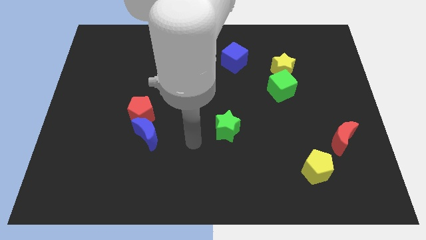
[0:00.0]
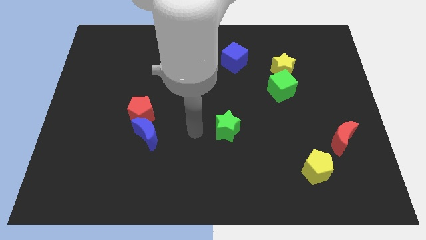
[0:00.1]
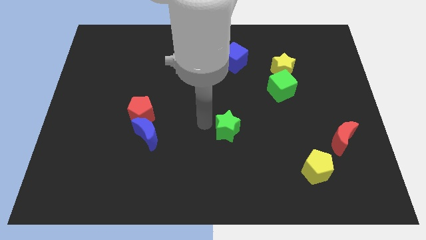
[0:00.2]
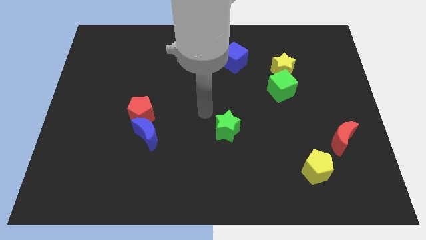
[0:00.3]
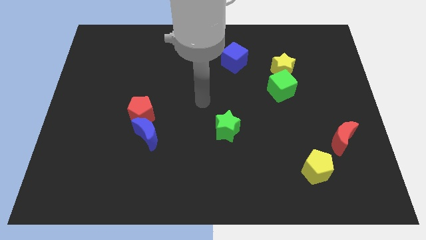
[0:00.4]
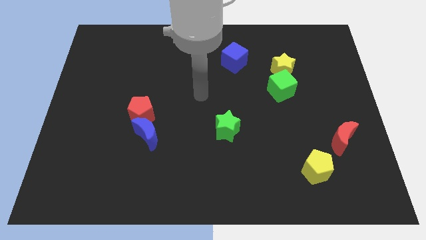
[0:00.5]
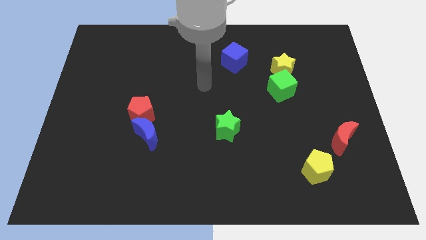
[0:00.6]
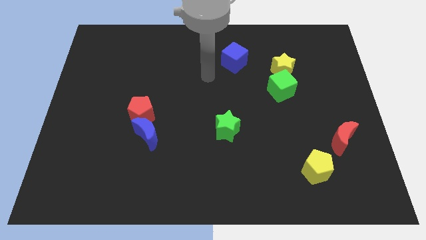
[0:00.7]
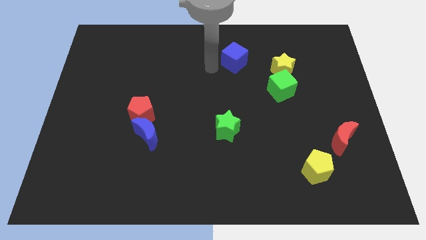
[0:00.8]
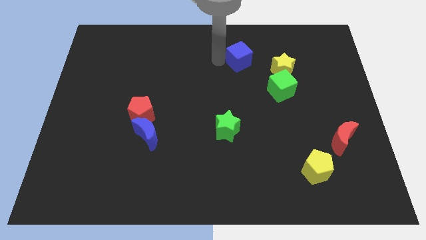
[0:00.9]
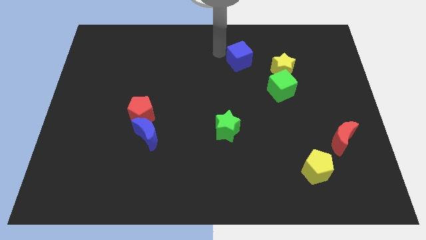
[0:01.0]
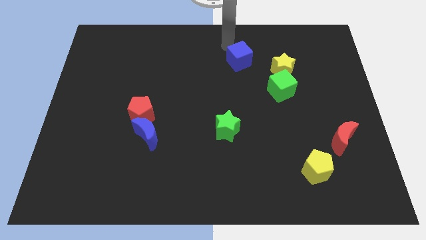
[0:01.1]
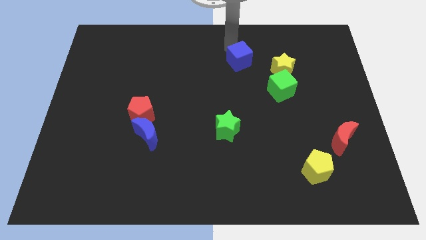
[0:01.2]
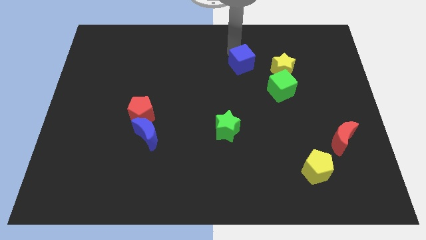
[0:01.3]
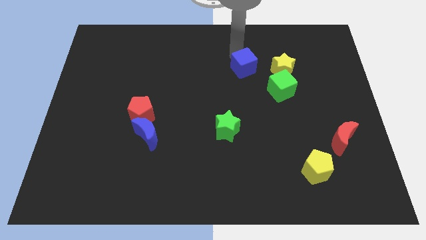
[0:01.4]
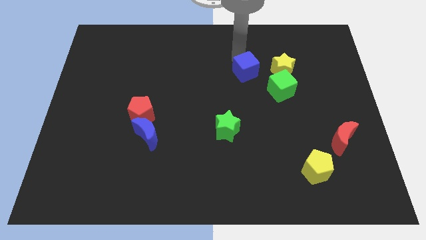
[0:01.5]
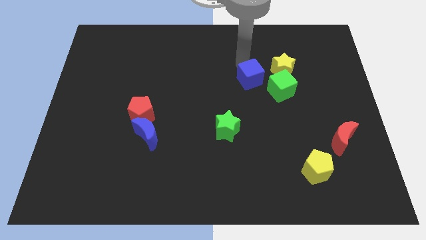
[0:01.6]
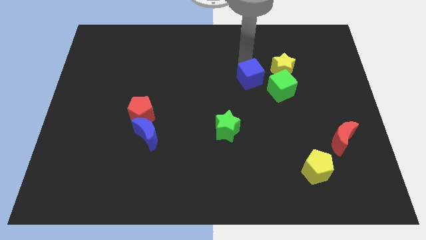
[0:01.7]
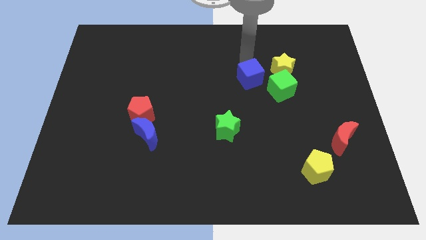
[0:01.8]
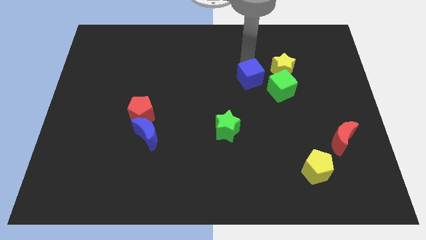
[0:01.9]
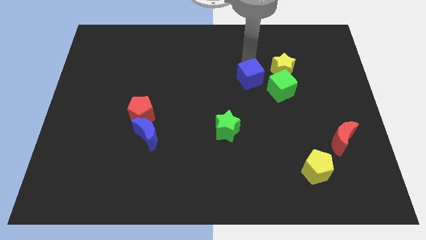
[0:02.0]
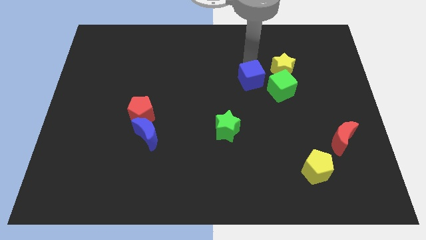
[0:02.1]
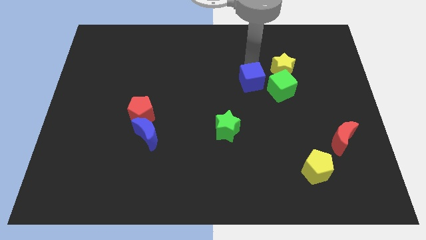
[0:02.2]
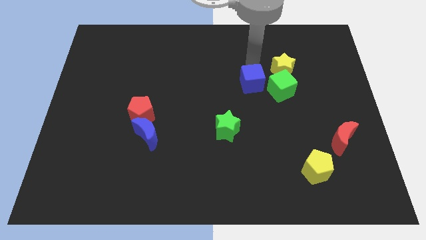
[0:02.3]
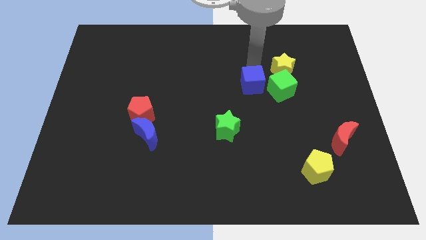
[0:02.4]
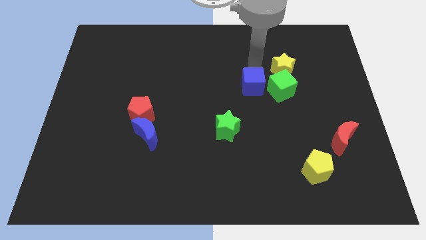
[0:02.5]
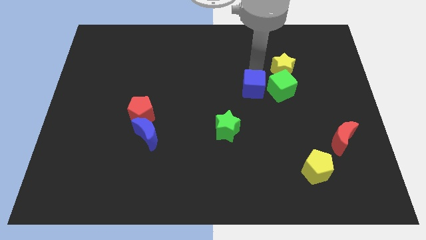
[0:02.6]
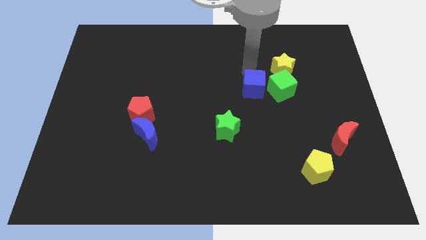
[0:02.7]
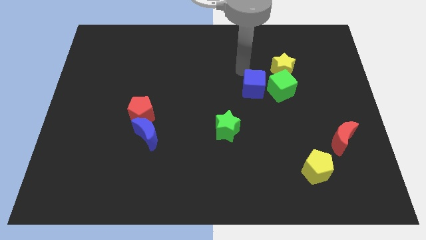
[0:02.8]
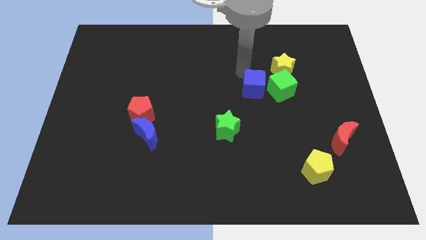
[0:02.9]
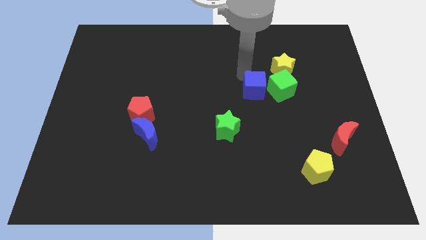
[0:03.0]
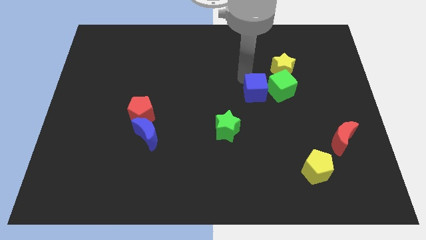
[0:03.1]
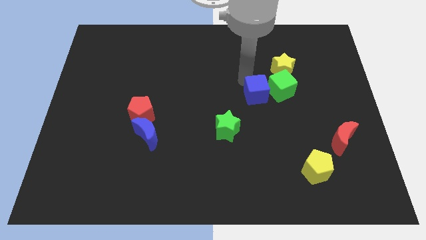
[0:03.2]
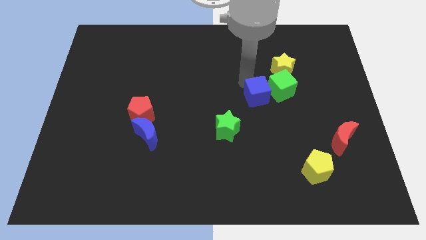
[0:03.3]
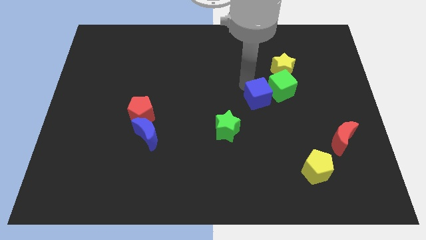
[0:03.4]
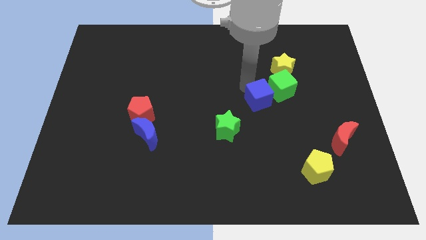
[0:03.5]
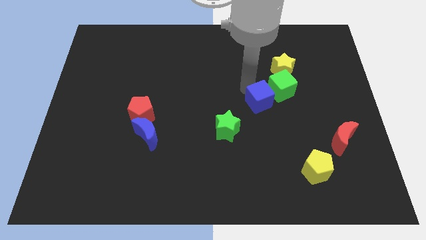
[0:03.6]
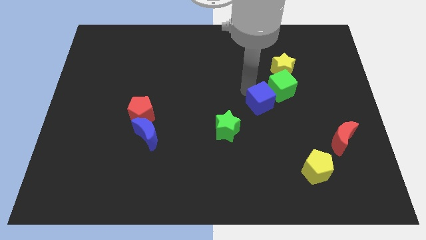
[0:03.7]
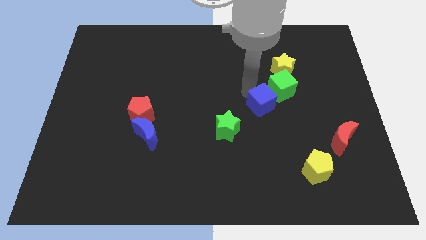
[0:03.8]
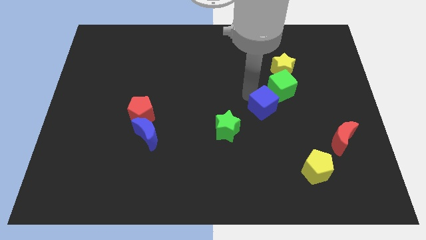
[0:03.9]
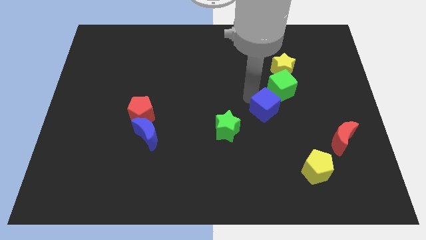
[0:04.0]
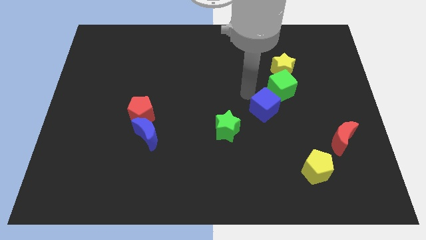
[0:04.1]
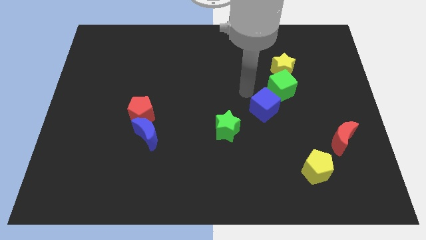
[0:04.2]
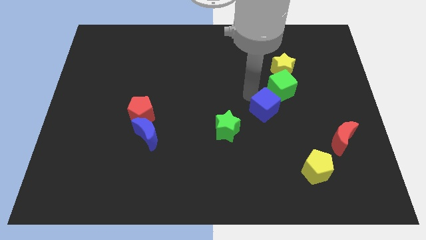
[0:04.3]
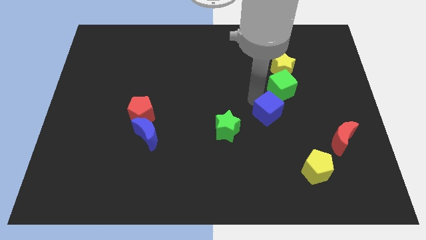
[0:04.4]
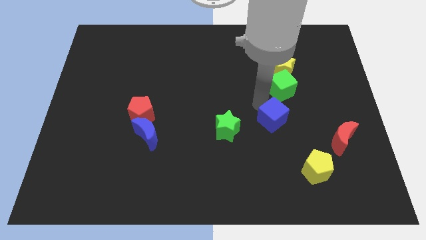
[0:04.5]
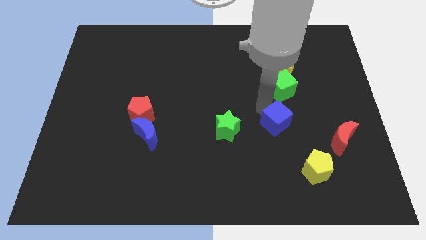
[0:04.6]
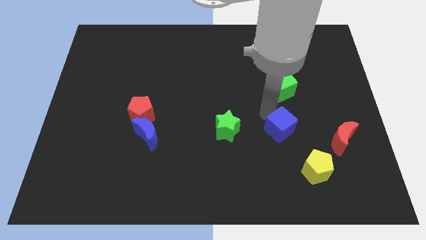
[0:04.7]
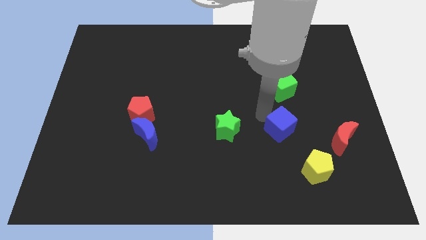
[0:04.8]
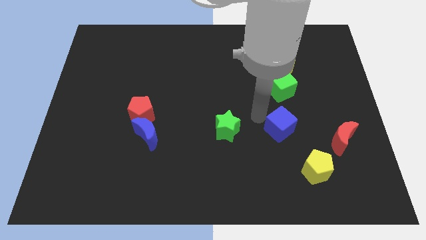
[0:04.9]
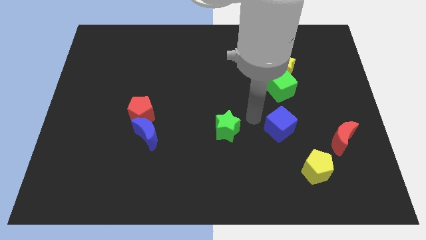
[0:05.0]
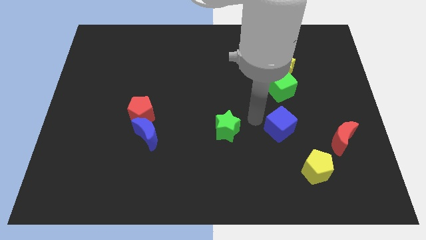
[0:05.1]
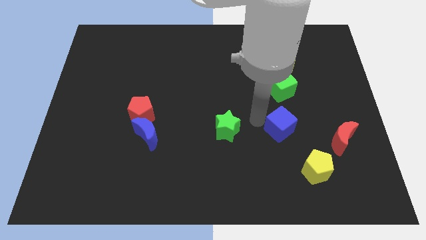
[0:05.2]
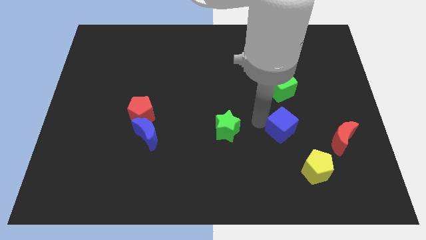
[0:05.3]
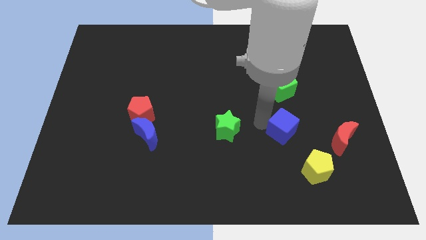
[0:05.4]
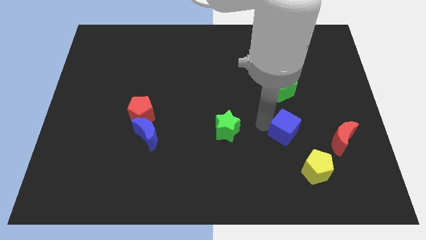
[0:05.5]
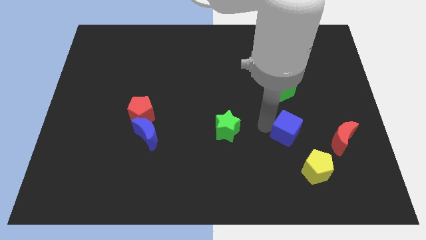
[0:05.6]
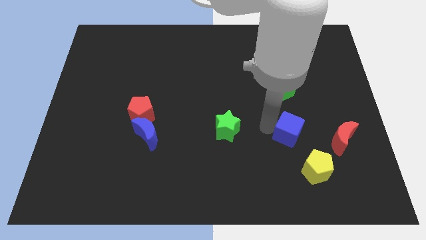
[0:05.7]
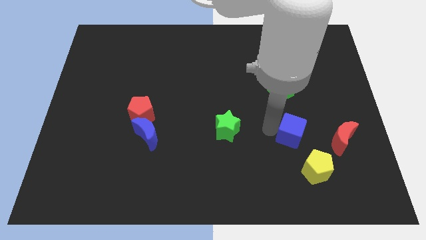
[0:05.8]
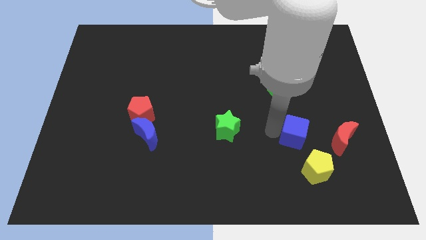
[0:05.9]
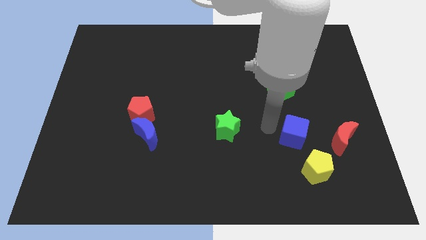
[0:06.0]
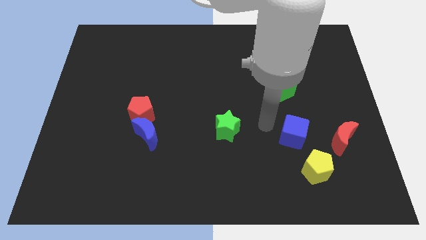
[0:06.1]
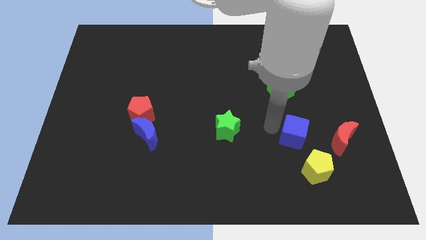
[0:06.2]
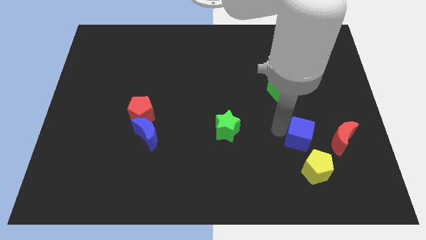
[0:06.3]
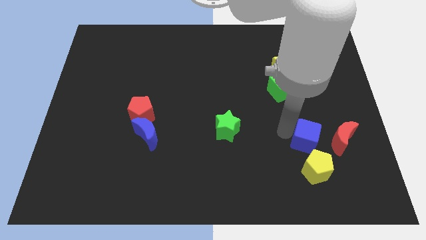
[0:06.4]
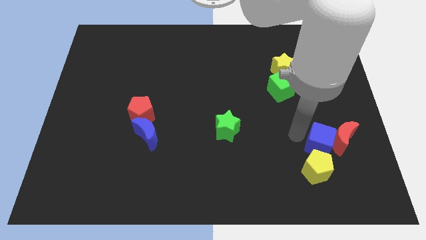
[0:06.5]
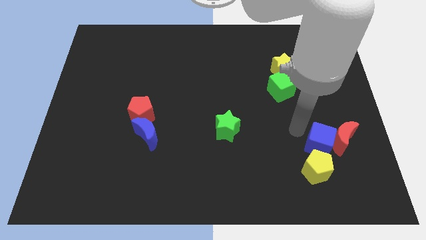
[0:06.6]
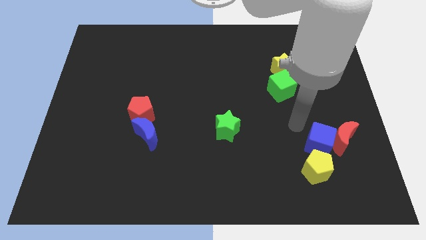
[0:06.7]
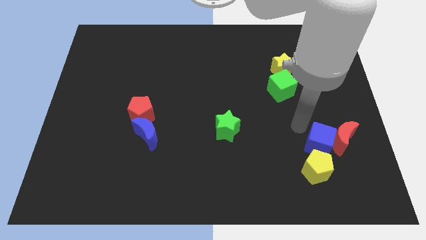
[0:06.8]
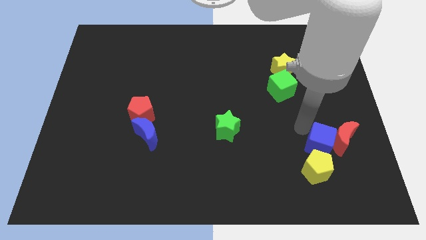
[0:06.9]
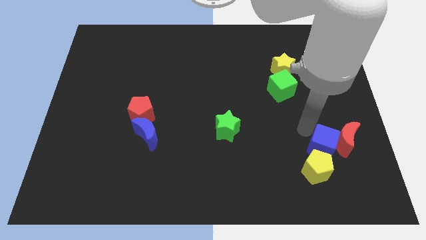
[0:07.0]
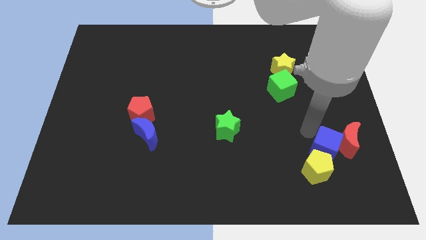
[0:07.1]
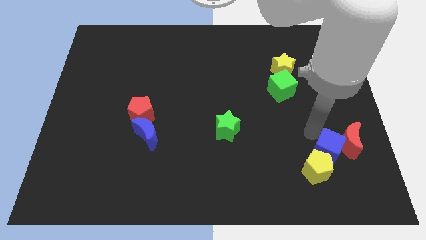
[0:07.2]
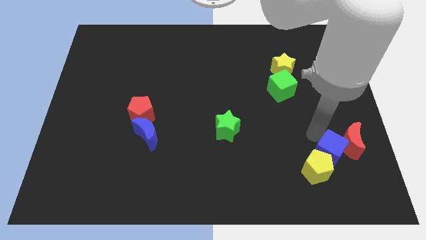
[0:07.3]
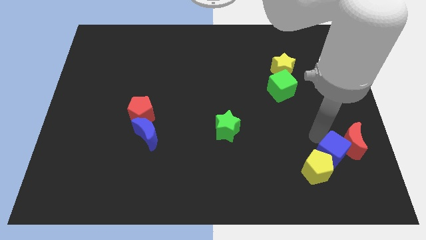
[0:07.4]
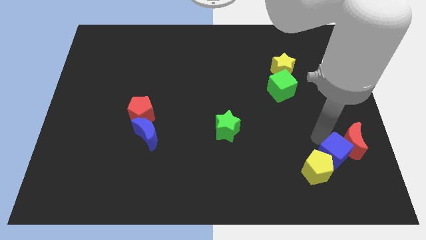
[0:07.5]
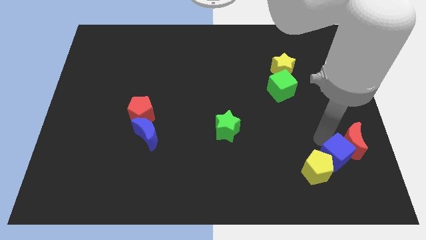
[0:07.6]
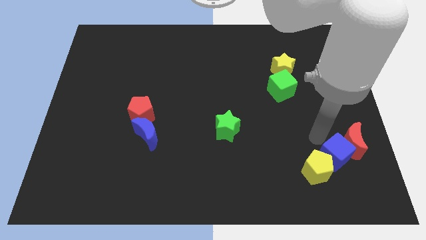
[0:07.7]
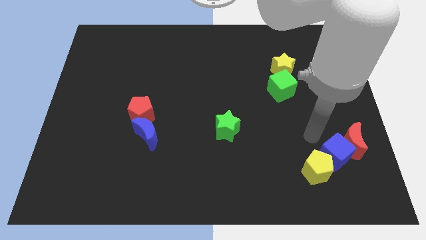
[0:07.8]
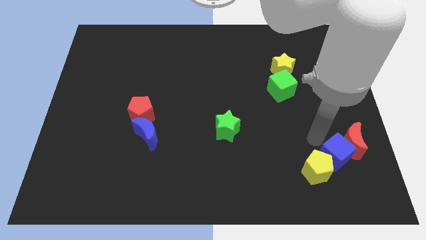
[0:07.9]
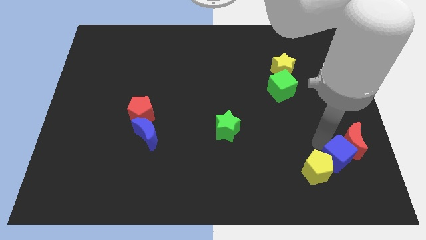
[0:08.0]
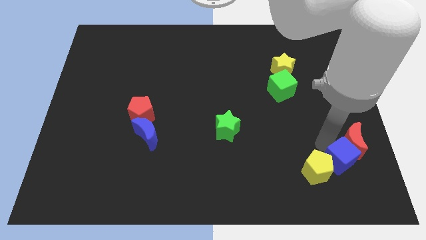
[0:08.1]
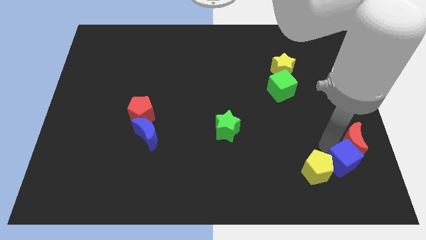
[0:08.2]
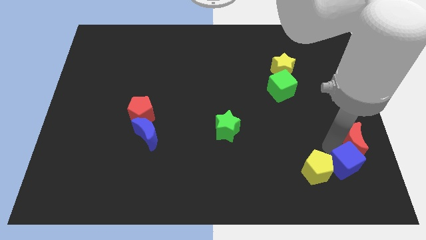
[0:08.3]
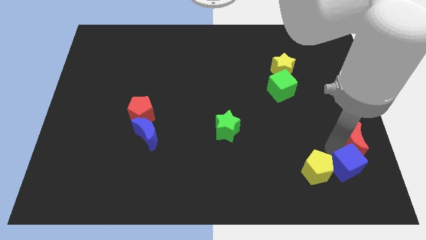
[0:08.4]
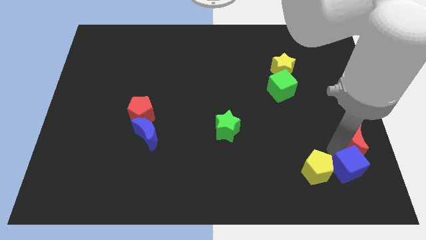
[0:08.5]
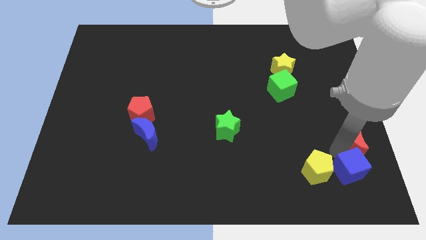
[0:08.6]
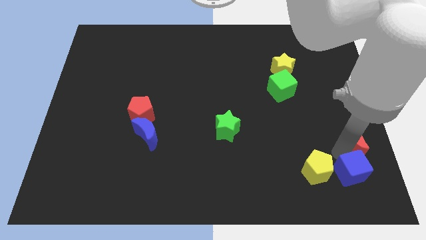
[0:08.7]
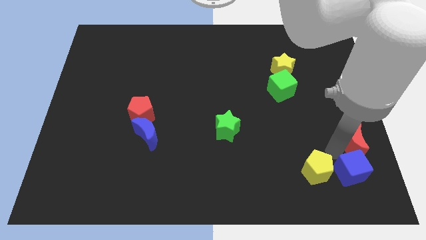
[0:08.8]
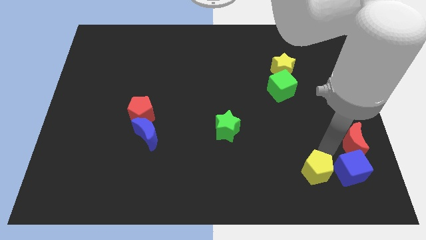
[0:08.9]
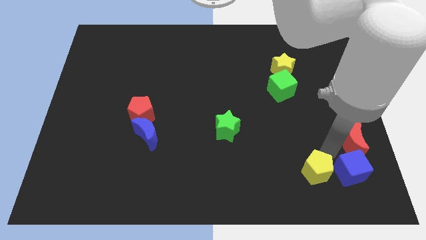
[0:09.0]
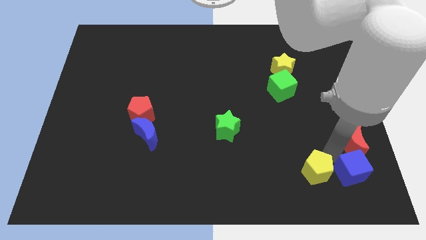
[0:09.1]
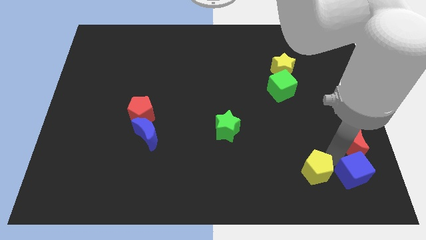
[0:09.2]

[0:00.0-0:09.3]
put the blue cube to the bottom right corner
